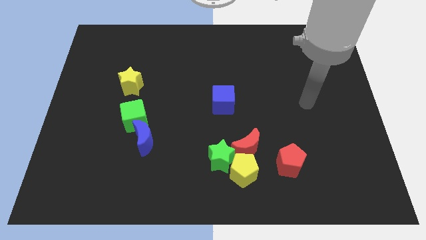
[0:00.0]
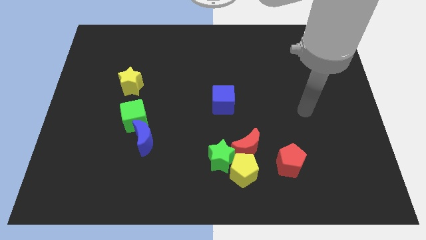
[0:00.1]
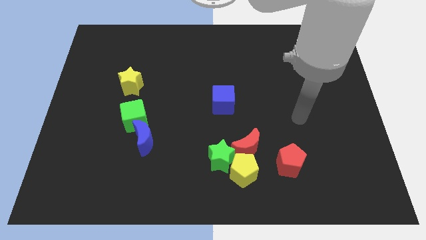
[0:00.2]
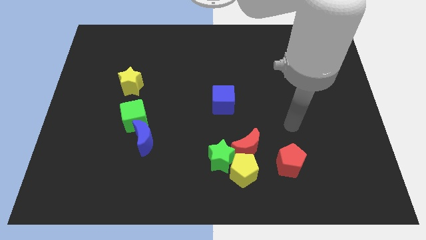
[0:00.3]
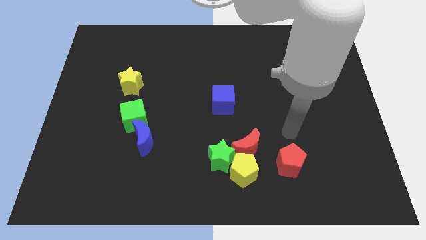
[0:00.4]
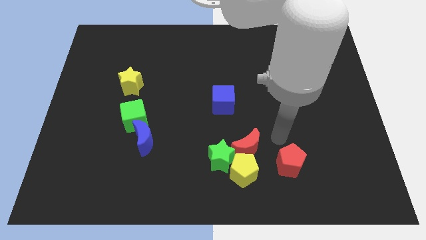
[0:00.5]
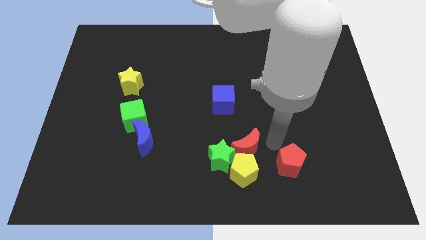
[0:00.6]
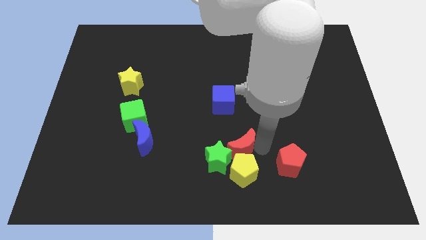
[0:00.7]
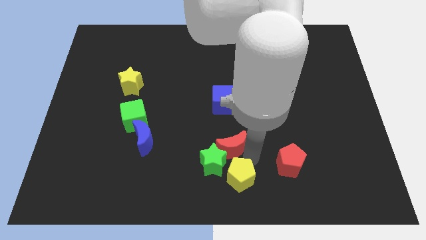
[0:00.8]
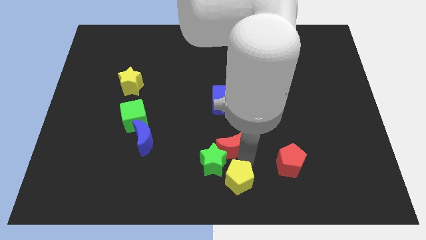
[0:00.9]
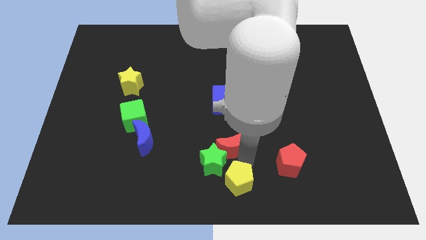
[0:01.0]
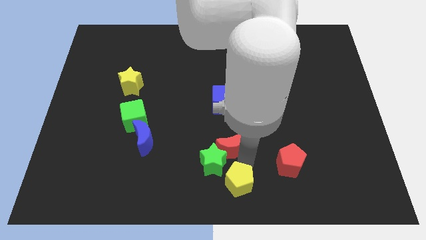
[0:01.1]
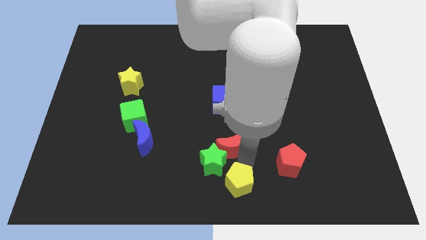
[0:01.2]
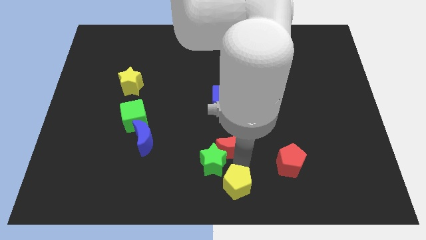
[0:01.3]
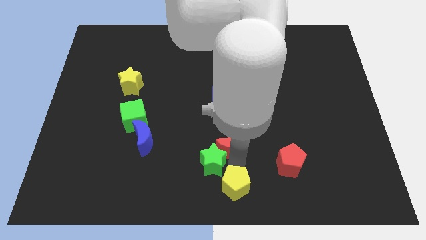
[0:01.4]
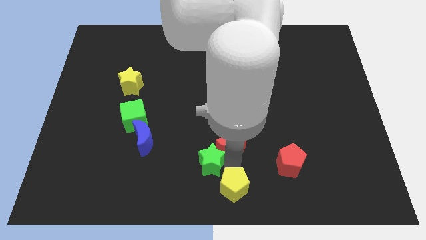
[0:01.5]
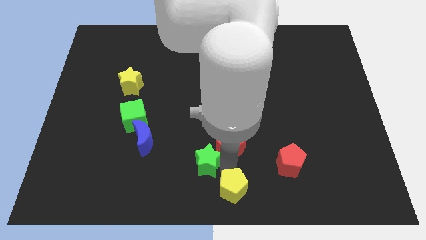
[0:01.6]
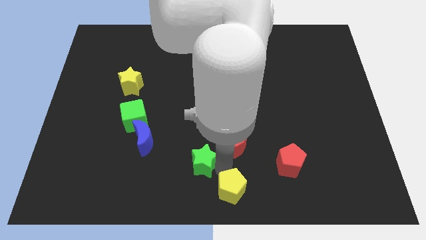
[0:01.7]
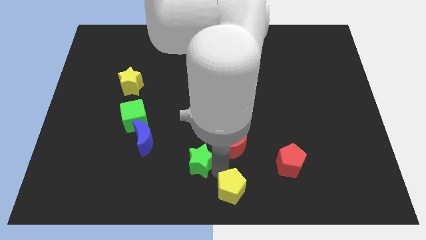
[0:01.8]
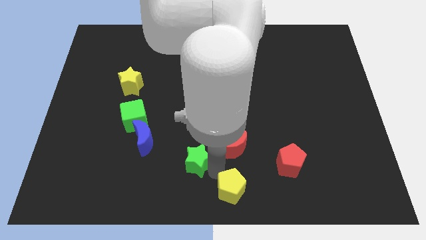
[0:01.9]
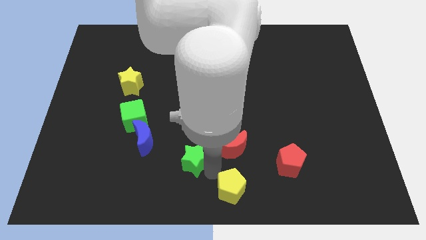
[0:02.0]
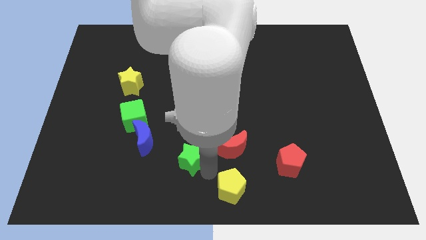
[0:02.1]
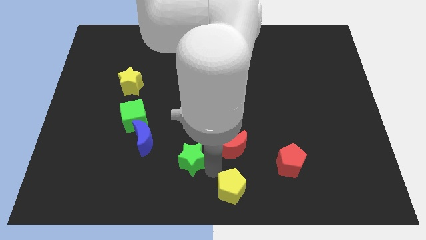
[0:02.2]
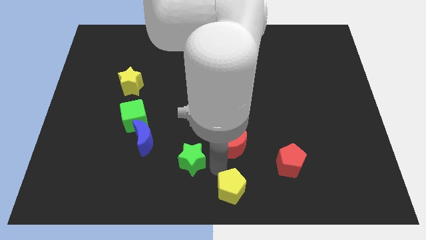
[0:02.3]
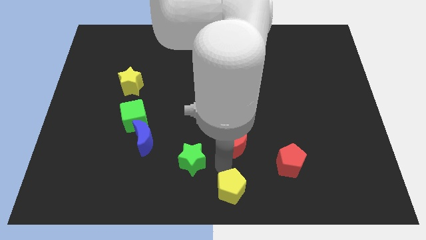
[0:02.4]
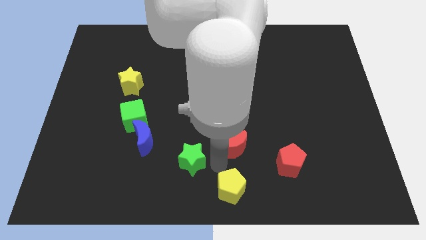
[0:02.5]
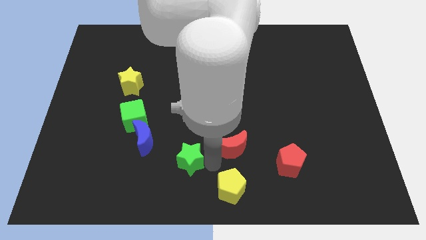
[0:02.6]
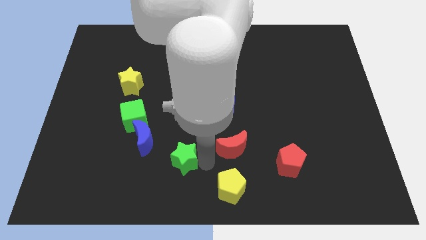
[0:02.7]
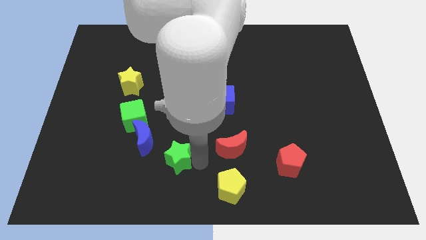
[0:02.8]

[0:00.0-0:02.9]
separate the green star from the yellow pentagon and red moon

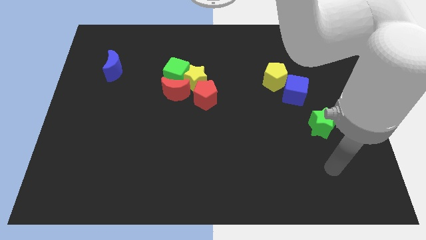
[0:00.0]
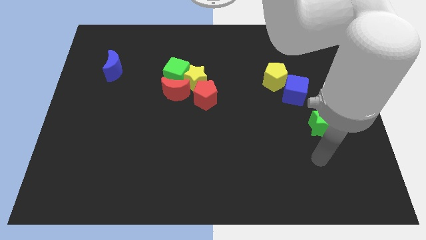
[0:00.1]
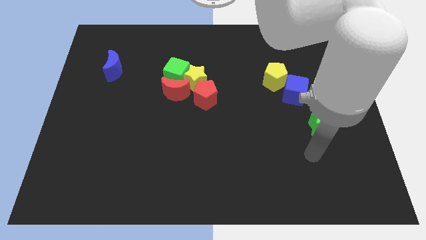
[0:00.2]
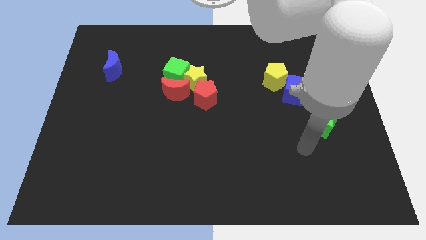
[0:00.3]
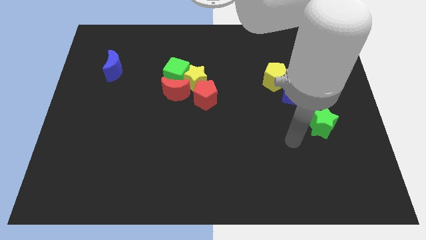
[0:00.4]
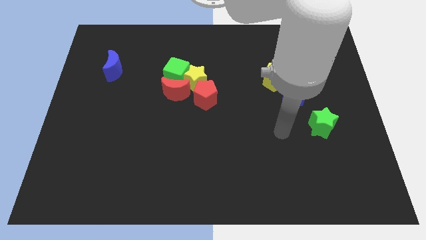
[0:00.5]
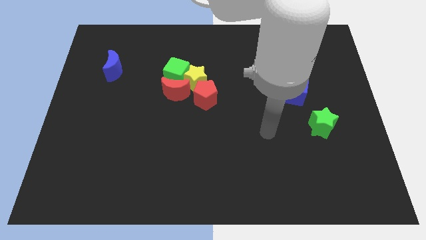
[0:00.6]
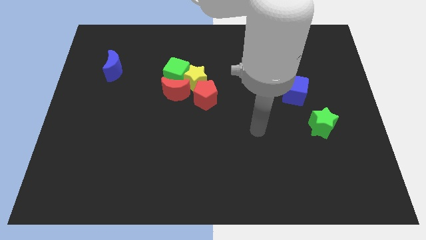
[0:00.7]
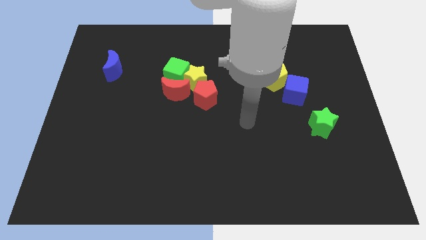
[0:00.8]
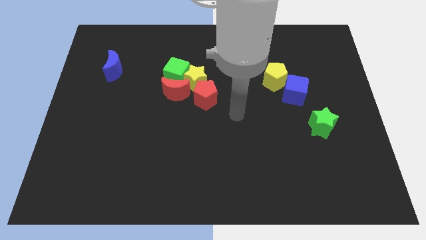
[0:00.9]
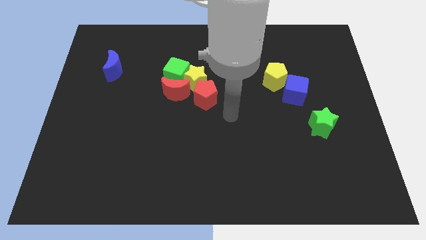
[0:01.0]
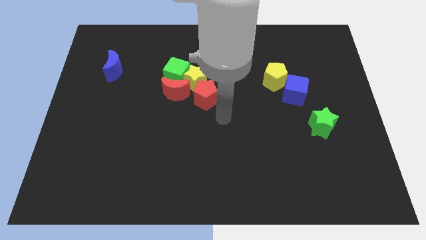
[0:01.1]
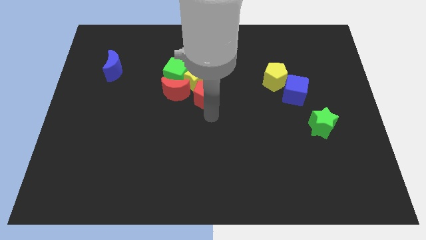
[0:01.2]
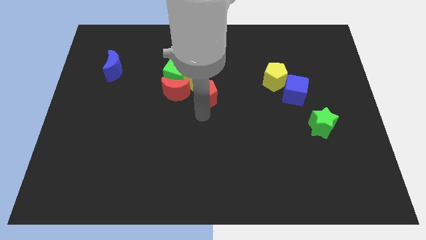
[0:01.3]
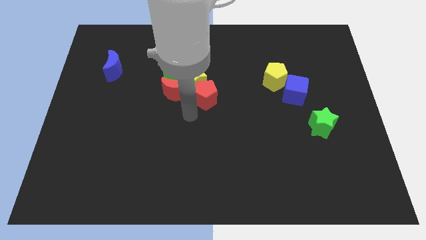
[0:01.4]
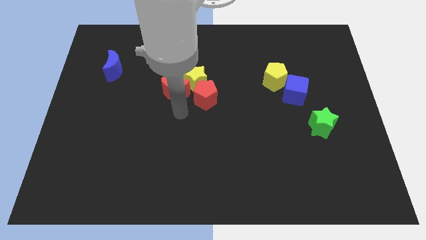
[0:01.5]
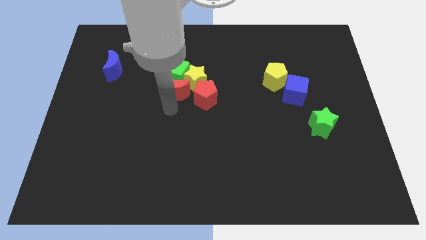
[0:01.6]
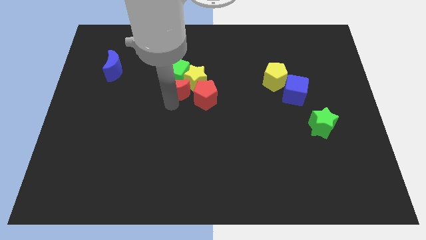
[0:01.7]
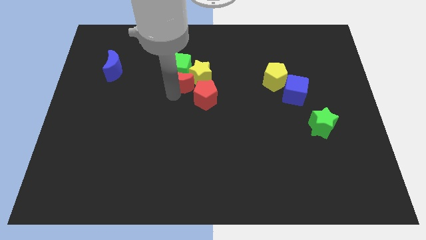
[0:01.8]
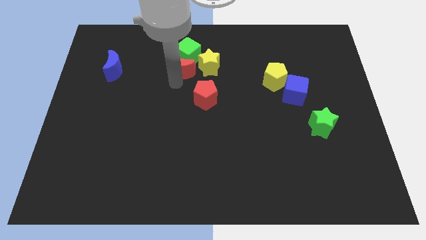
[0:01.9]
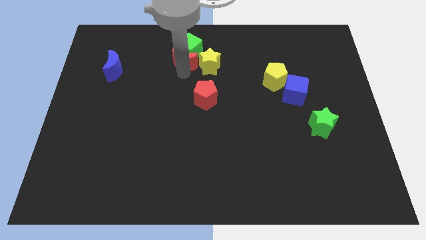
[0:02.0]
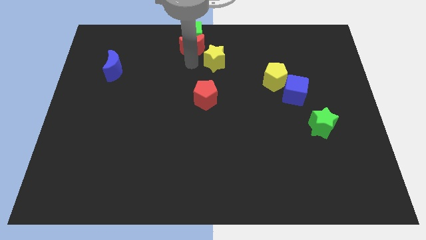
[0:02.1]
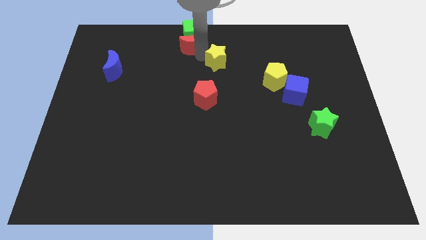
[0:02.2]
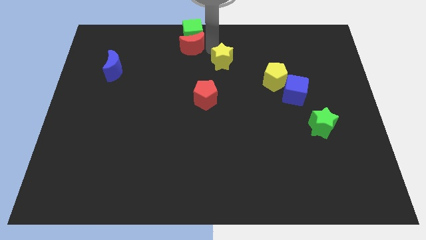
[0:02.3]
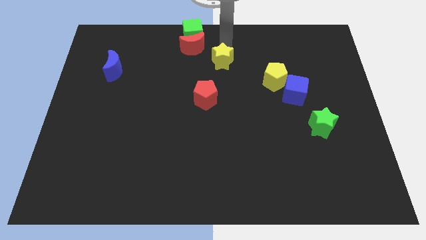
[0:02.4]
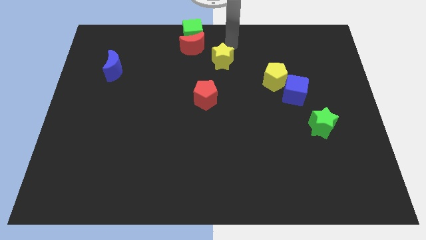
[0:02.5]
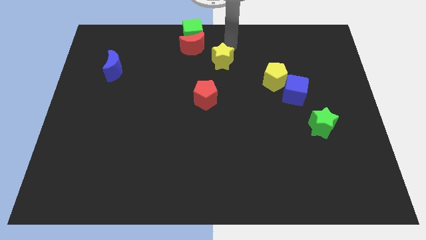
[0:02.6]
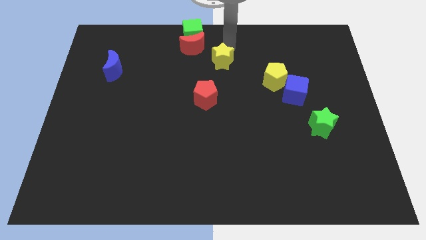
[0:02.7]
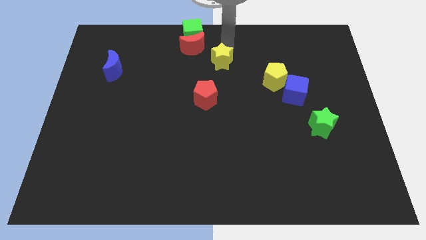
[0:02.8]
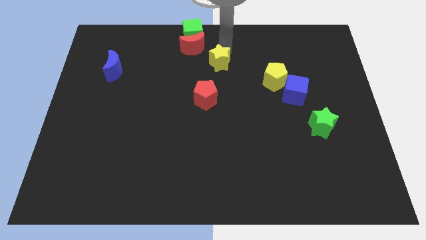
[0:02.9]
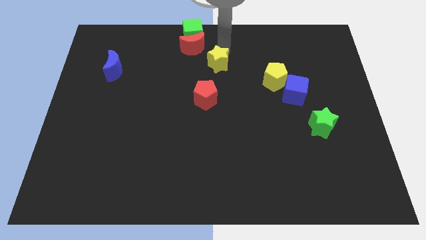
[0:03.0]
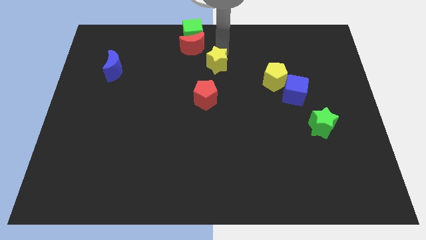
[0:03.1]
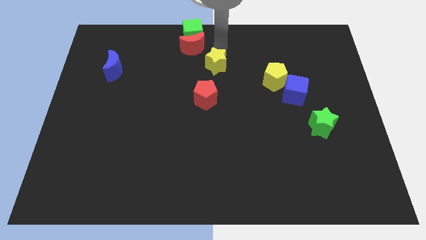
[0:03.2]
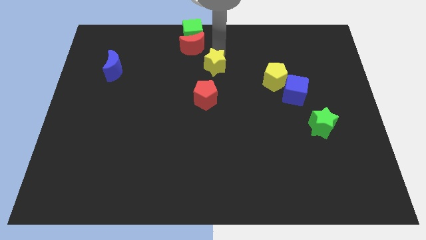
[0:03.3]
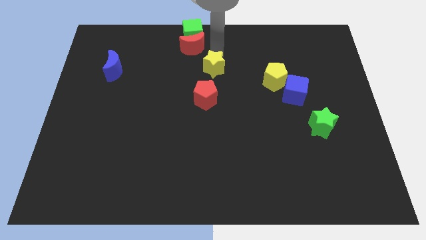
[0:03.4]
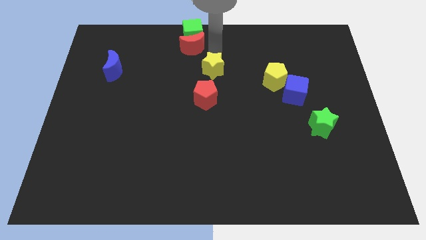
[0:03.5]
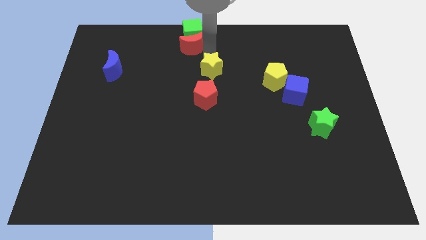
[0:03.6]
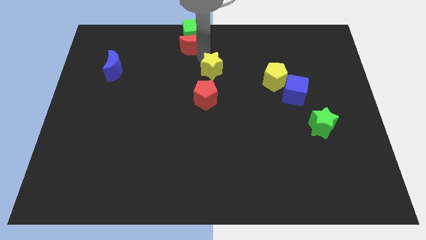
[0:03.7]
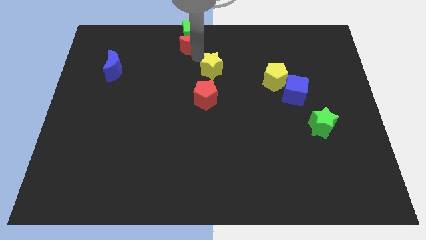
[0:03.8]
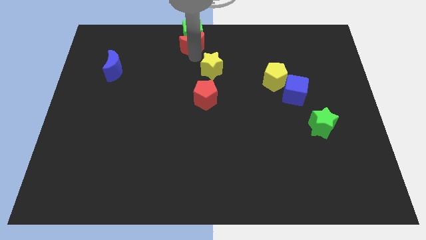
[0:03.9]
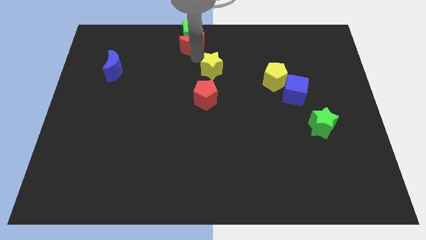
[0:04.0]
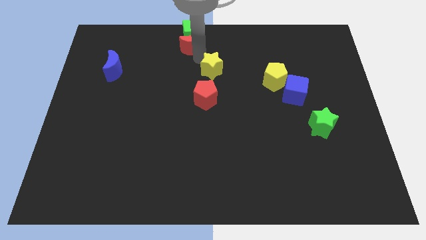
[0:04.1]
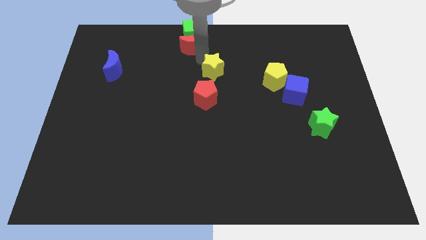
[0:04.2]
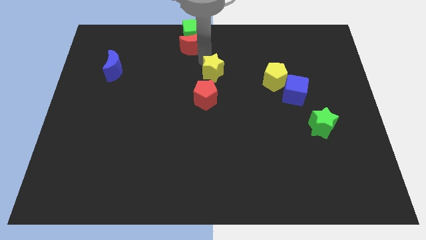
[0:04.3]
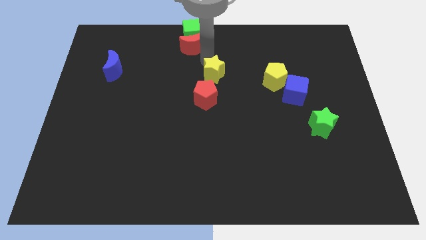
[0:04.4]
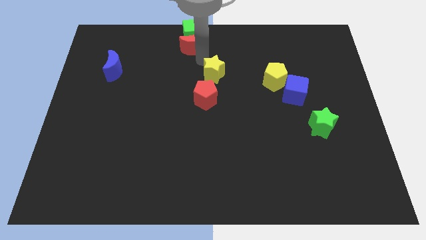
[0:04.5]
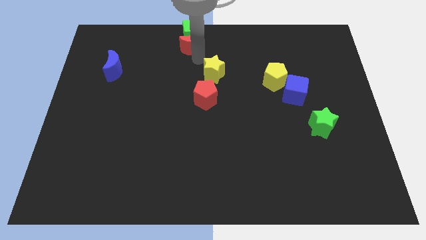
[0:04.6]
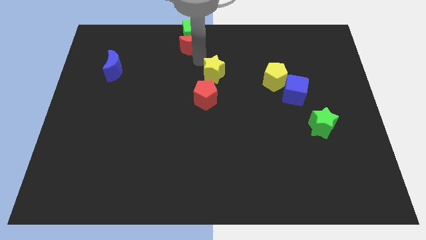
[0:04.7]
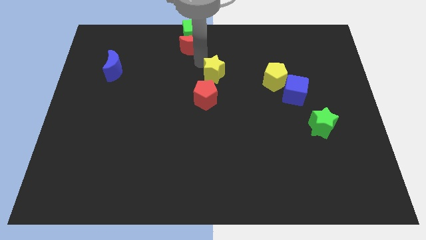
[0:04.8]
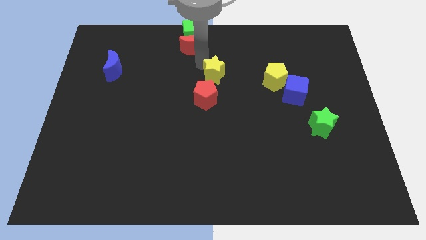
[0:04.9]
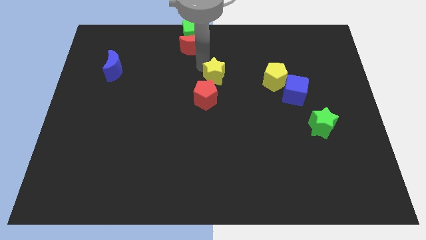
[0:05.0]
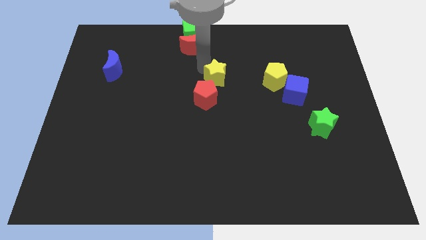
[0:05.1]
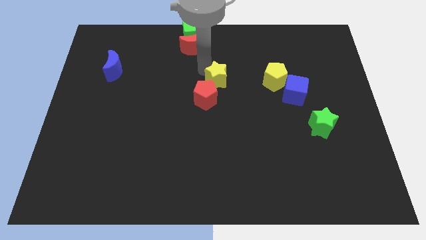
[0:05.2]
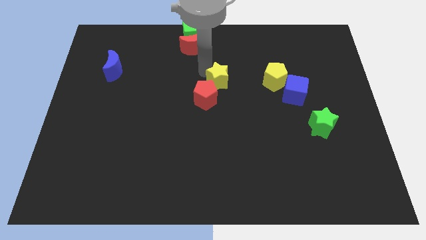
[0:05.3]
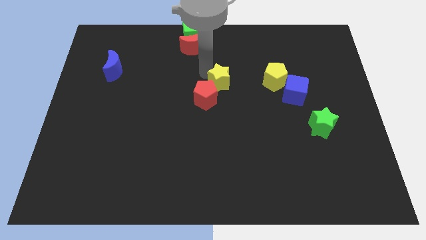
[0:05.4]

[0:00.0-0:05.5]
move the yellow star away from the green cube, red pentagon, and red moon

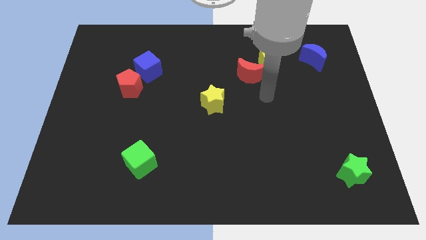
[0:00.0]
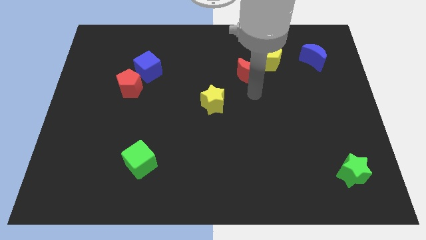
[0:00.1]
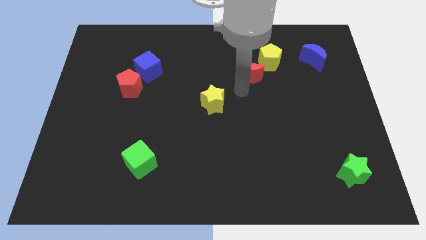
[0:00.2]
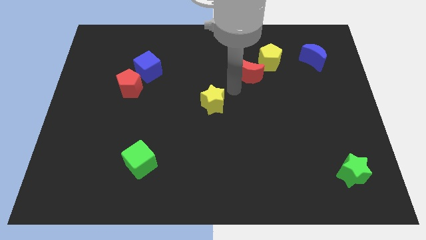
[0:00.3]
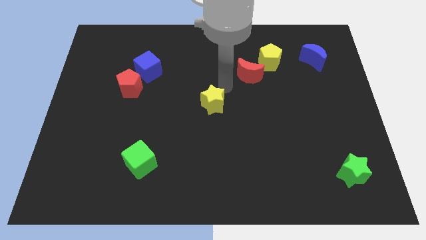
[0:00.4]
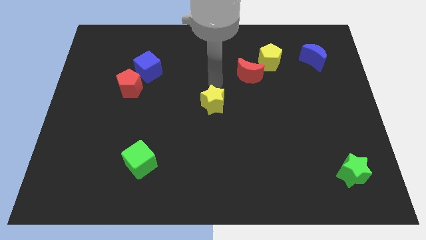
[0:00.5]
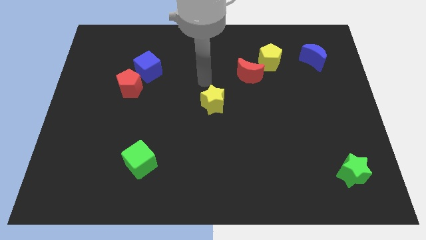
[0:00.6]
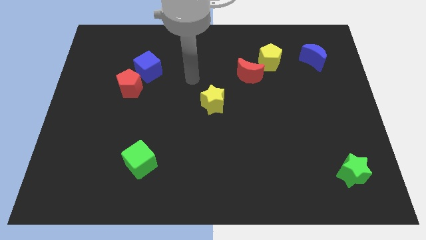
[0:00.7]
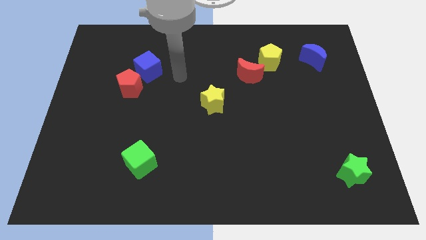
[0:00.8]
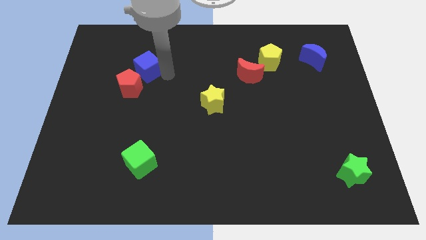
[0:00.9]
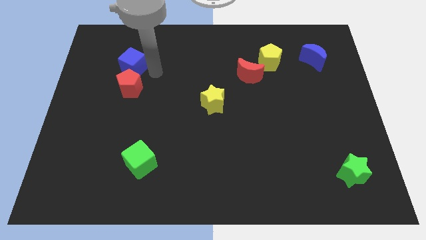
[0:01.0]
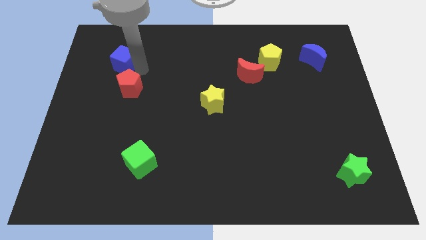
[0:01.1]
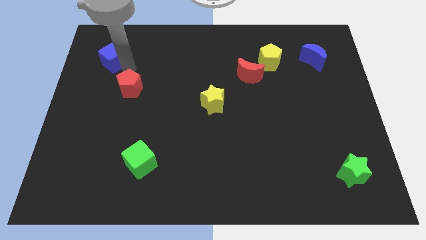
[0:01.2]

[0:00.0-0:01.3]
pull the red pentagon apart from the blue cube
